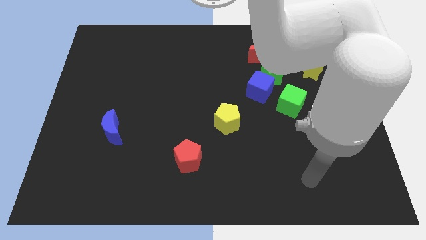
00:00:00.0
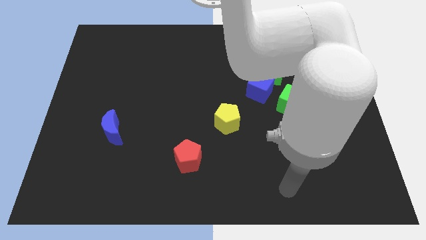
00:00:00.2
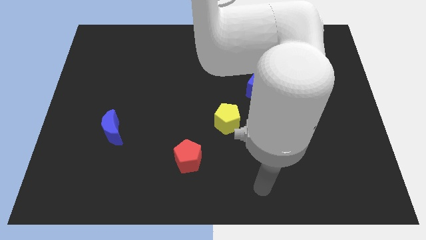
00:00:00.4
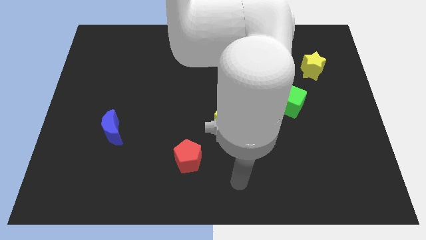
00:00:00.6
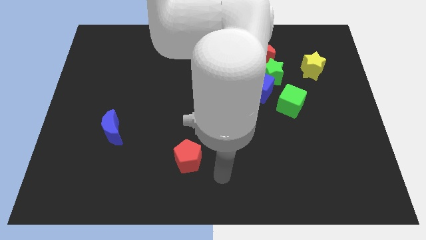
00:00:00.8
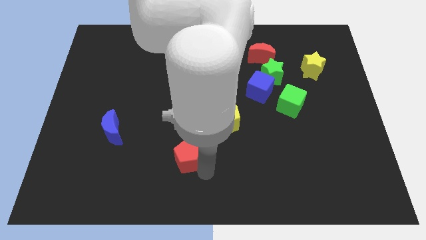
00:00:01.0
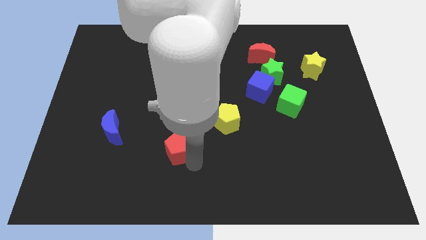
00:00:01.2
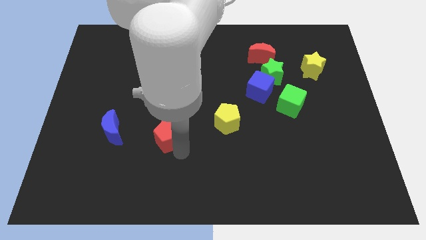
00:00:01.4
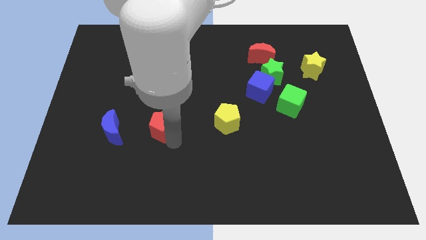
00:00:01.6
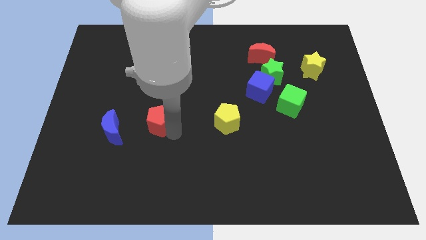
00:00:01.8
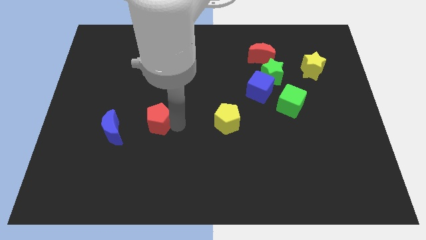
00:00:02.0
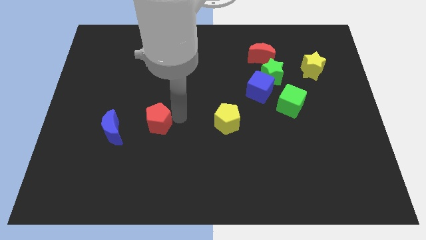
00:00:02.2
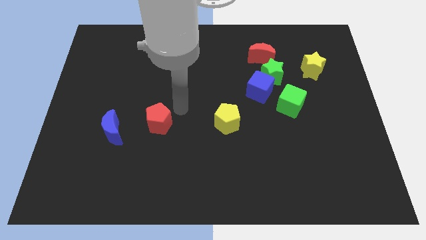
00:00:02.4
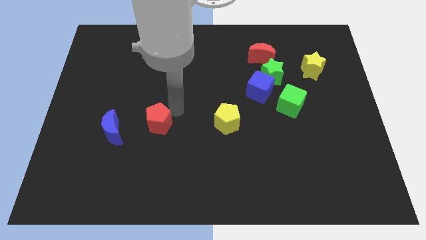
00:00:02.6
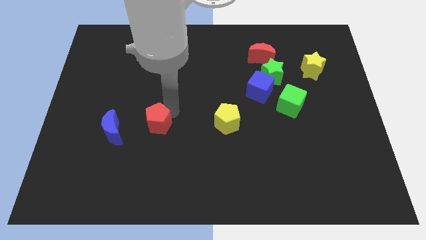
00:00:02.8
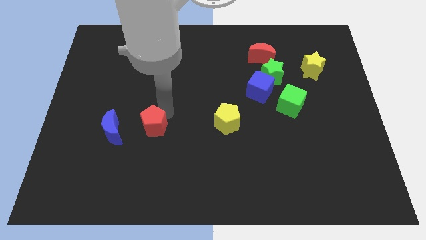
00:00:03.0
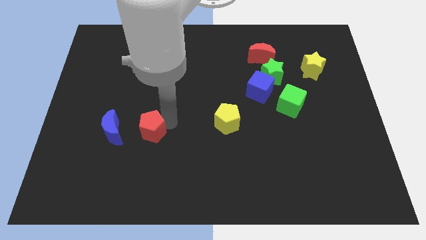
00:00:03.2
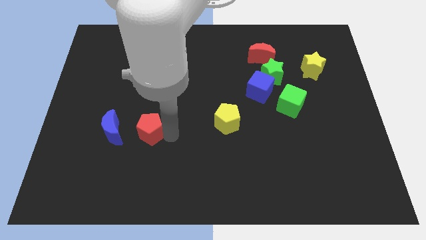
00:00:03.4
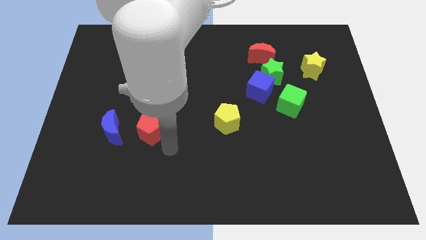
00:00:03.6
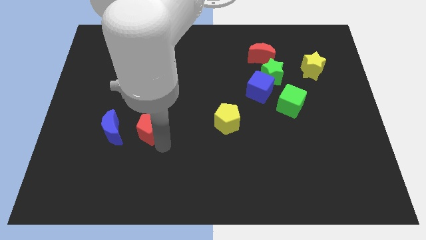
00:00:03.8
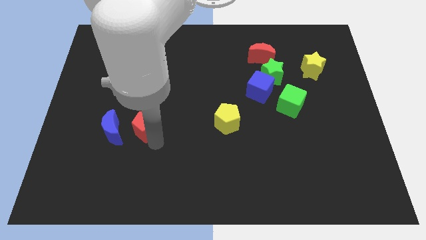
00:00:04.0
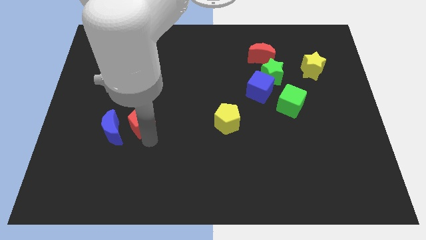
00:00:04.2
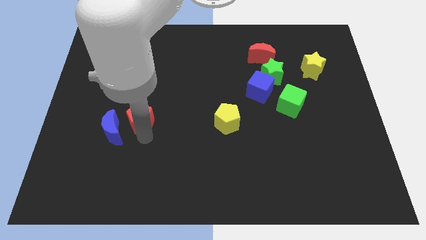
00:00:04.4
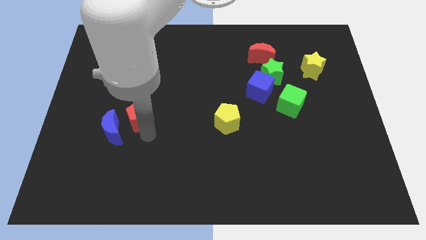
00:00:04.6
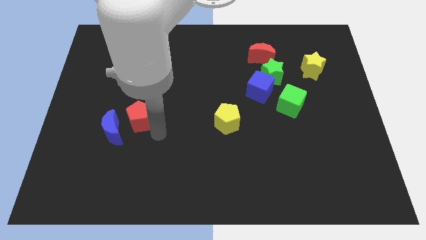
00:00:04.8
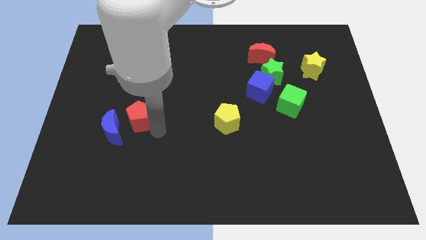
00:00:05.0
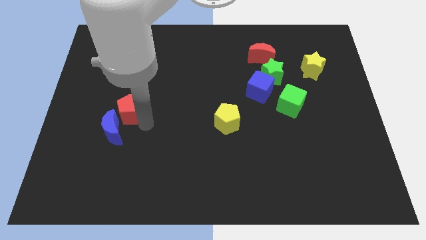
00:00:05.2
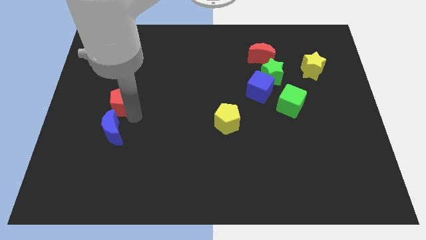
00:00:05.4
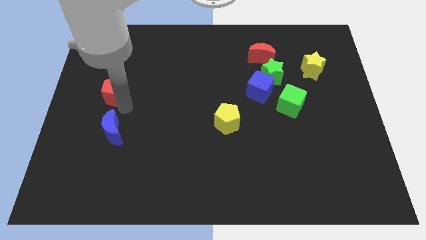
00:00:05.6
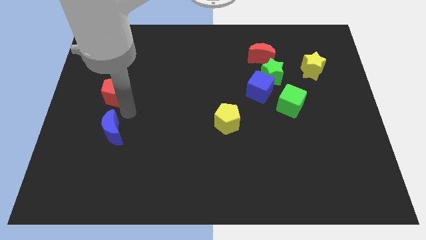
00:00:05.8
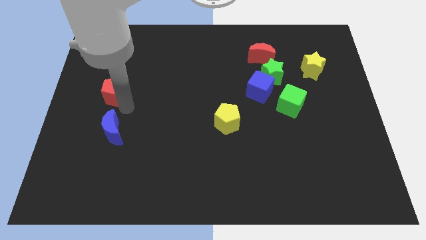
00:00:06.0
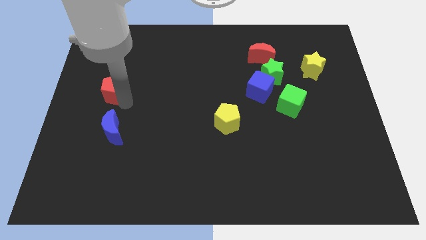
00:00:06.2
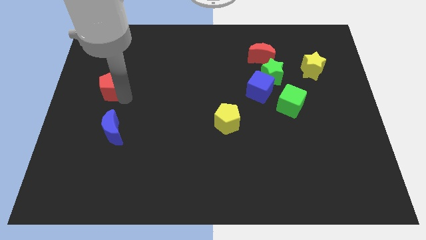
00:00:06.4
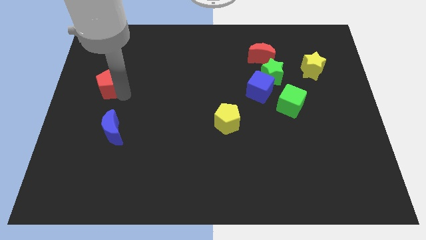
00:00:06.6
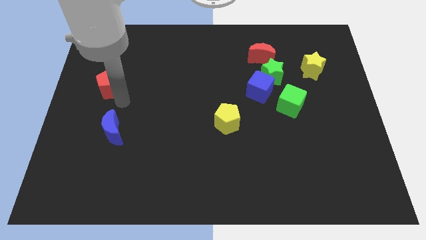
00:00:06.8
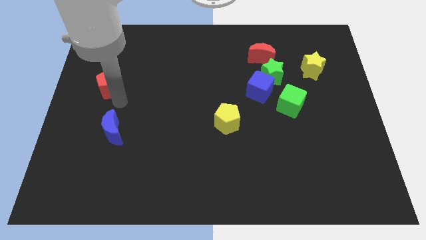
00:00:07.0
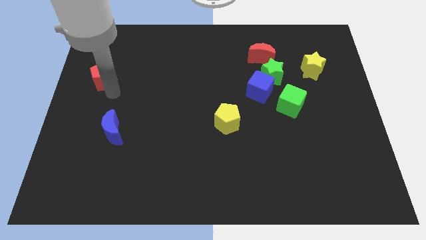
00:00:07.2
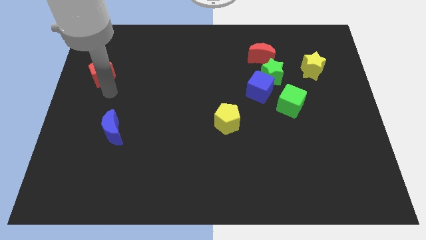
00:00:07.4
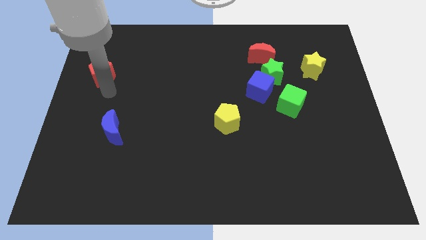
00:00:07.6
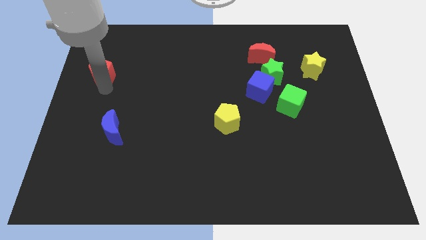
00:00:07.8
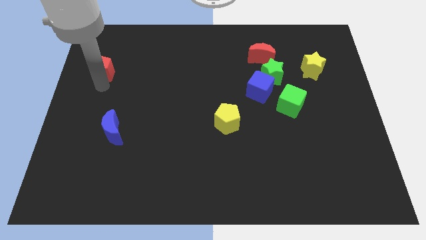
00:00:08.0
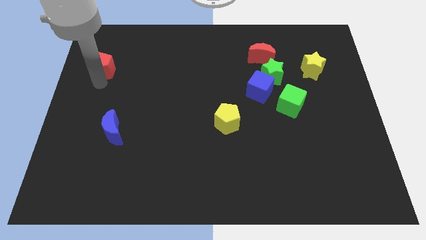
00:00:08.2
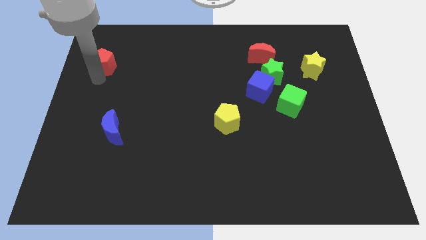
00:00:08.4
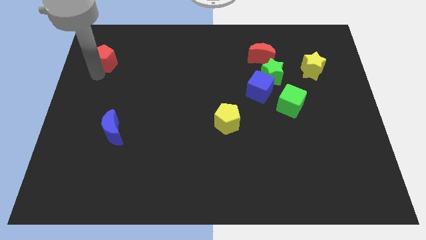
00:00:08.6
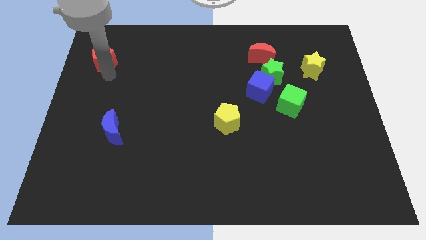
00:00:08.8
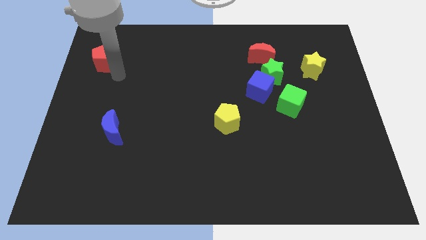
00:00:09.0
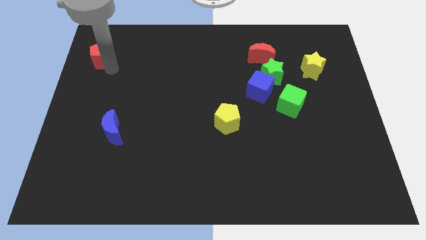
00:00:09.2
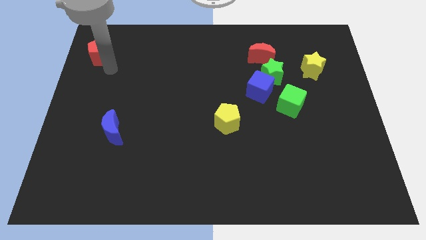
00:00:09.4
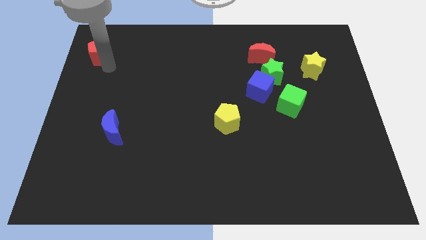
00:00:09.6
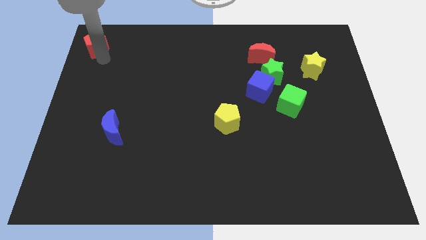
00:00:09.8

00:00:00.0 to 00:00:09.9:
slide the red pentagon to the top left corner

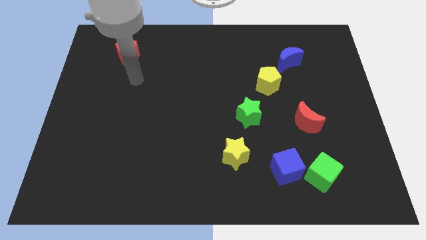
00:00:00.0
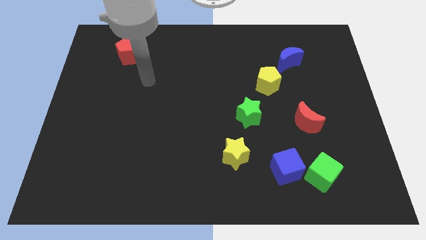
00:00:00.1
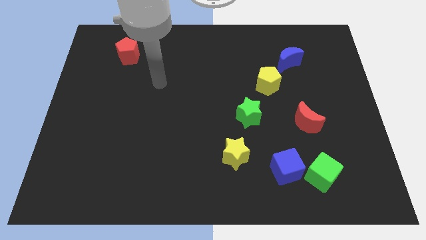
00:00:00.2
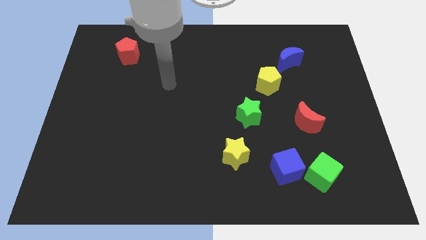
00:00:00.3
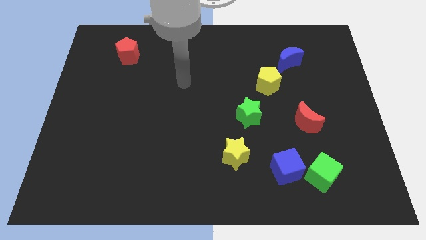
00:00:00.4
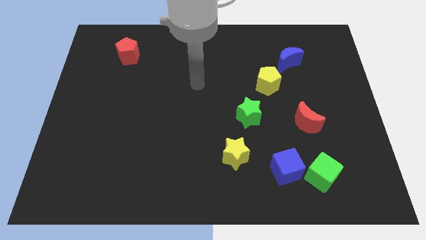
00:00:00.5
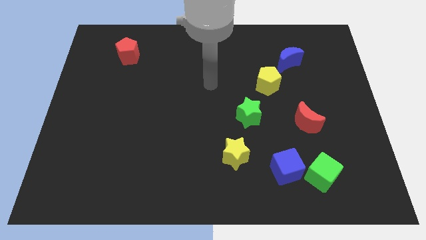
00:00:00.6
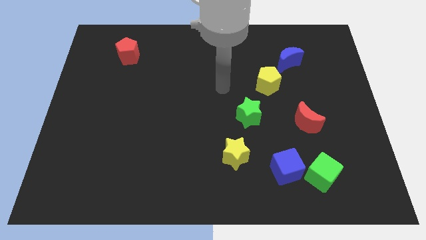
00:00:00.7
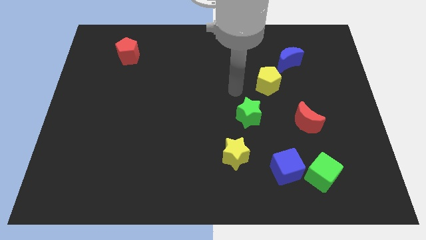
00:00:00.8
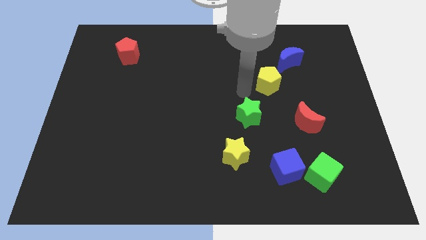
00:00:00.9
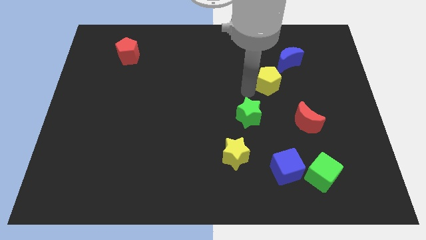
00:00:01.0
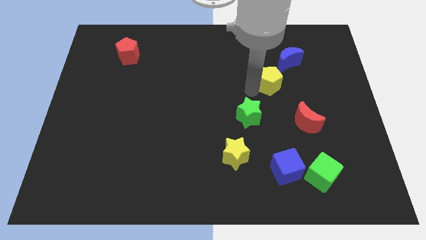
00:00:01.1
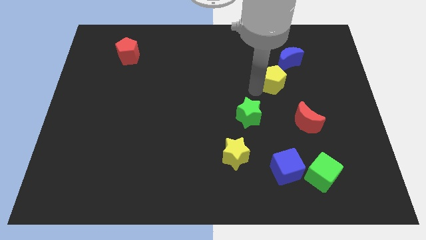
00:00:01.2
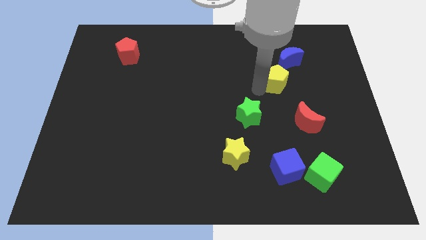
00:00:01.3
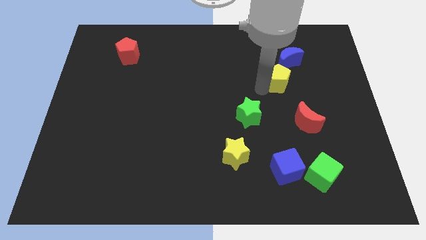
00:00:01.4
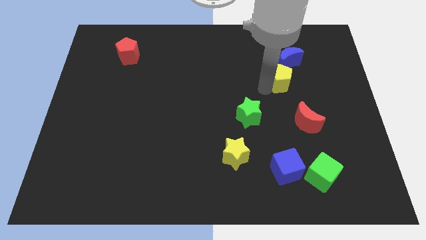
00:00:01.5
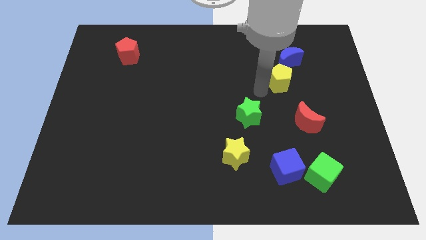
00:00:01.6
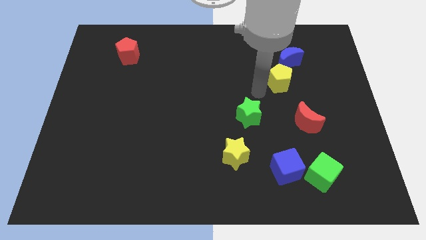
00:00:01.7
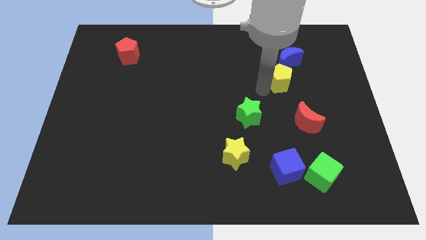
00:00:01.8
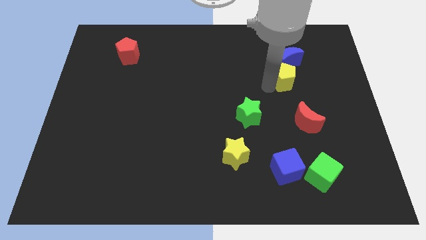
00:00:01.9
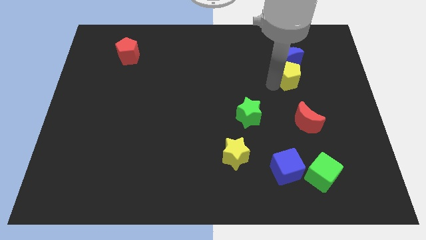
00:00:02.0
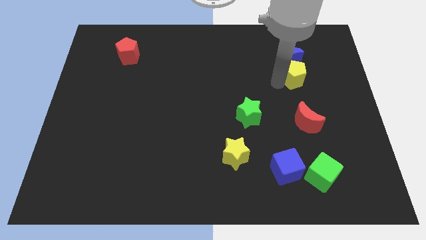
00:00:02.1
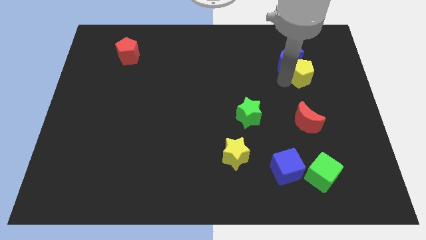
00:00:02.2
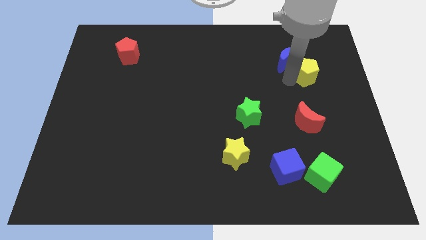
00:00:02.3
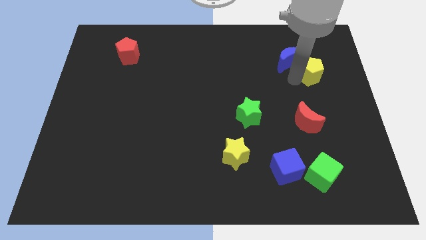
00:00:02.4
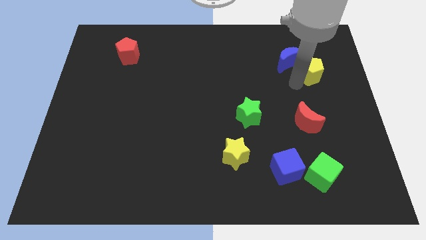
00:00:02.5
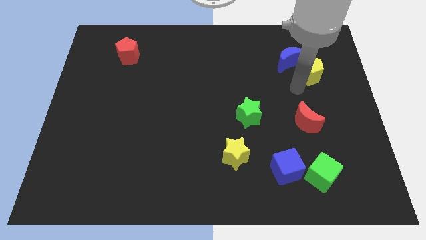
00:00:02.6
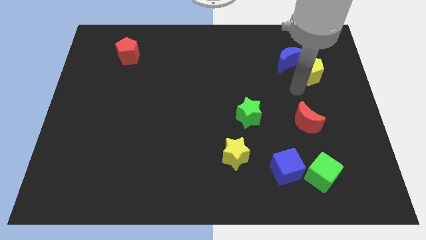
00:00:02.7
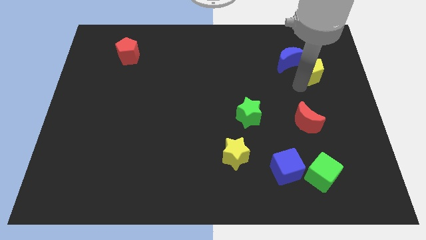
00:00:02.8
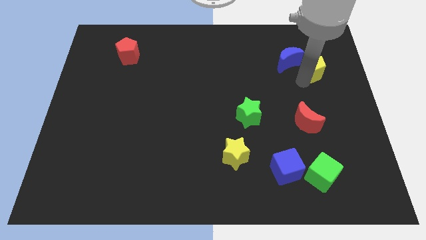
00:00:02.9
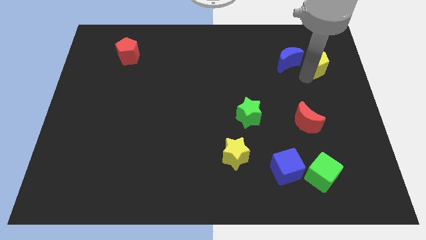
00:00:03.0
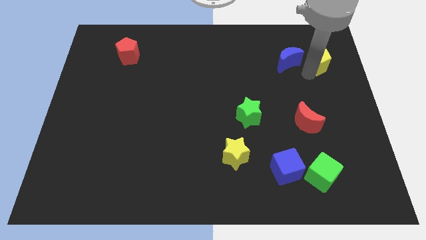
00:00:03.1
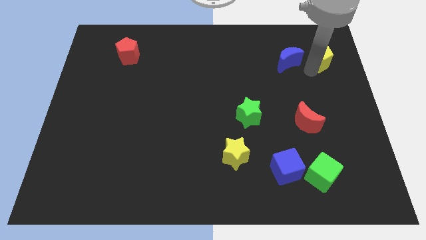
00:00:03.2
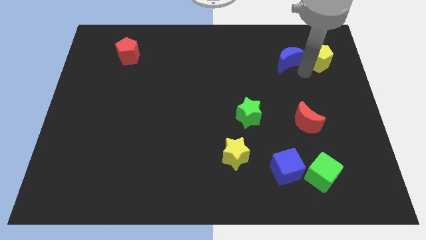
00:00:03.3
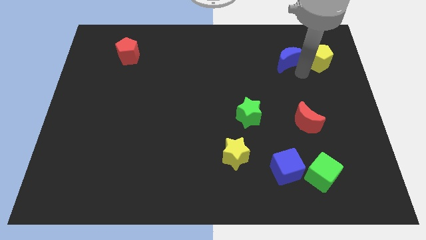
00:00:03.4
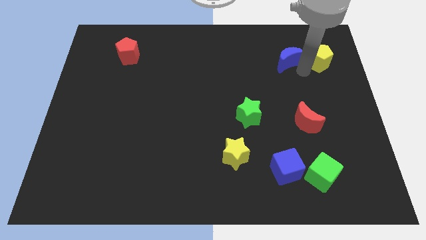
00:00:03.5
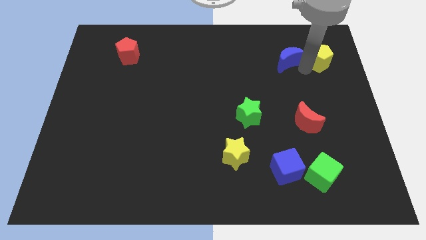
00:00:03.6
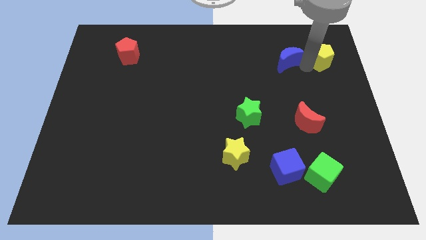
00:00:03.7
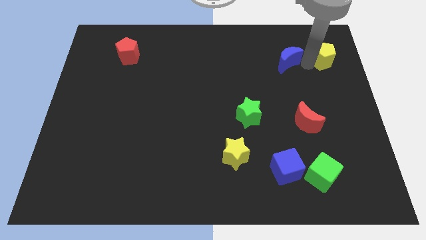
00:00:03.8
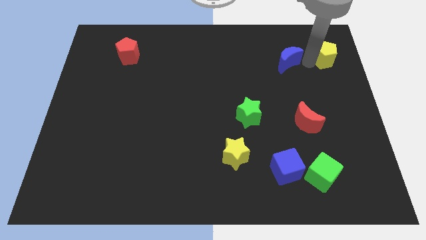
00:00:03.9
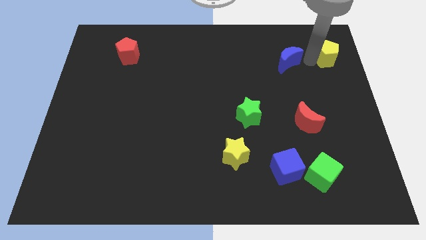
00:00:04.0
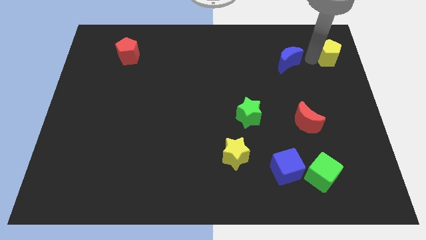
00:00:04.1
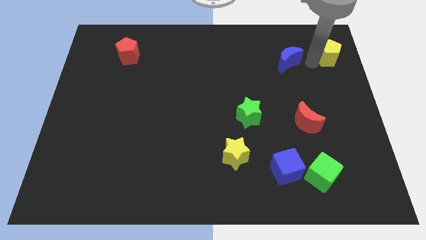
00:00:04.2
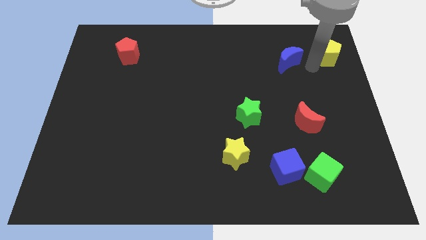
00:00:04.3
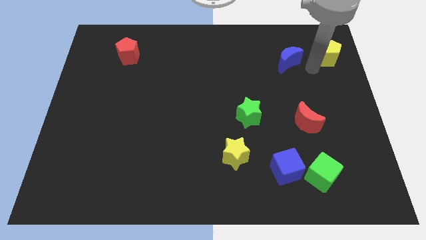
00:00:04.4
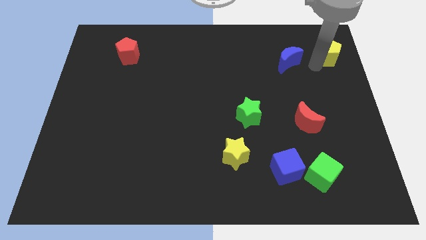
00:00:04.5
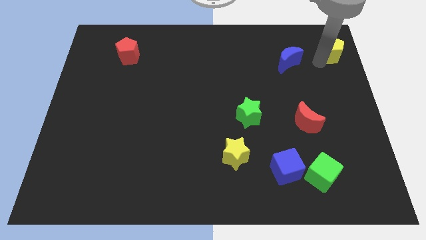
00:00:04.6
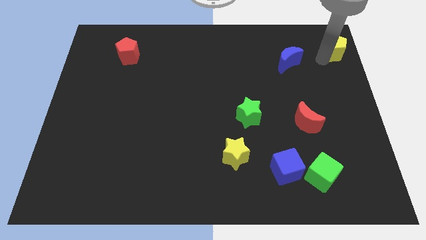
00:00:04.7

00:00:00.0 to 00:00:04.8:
put the yellow pentagon to the upper right corner
